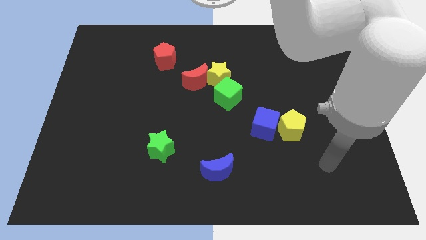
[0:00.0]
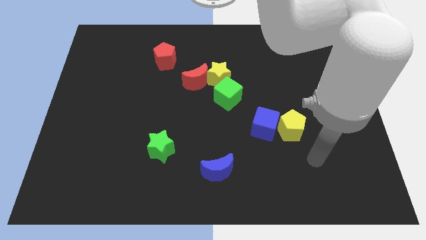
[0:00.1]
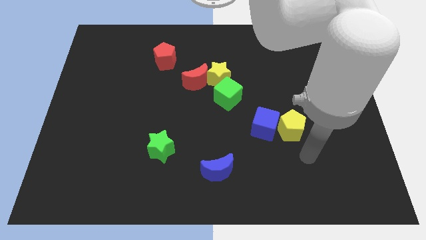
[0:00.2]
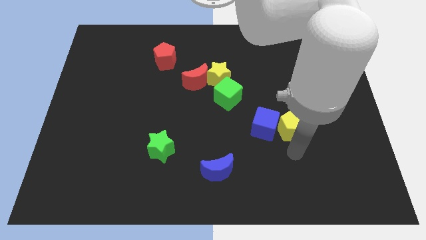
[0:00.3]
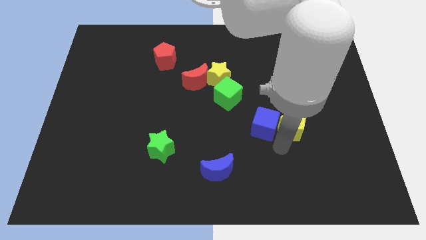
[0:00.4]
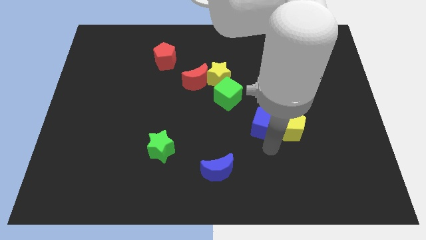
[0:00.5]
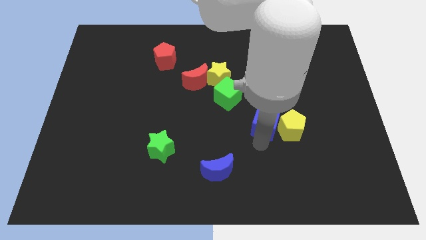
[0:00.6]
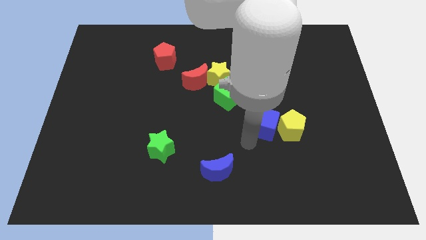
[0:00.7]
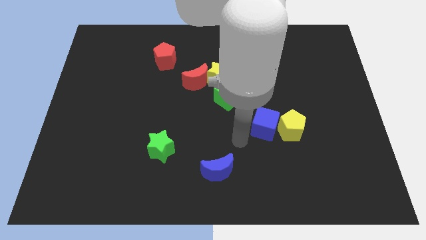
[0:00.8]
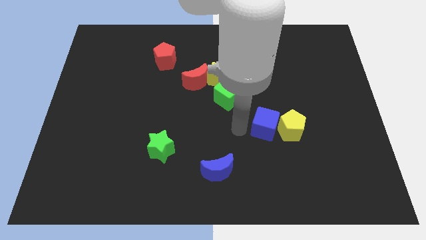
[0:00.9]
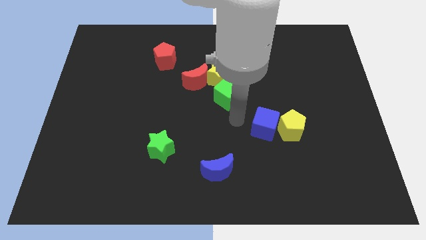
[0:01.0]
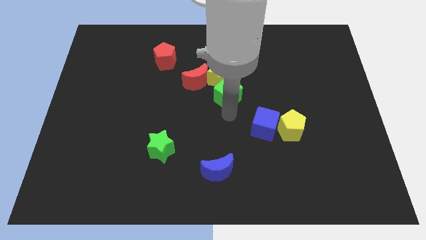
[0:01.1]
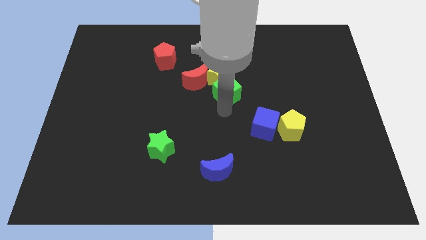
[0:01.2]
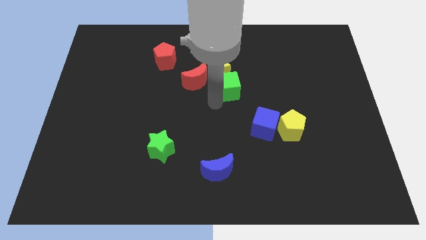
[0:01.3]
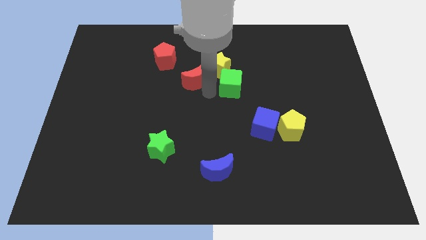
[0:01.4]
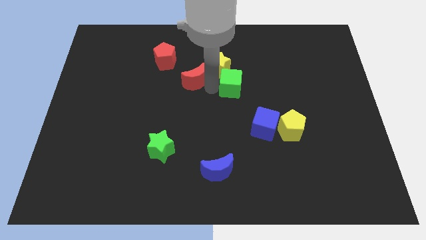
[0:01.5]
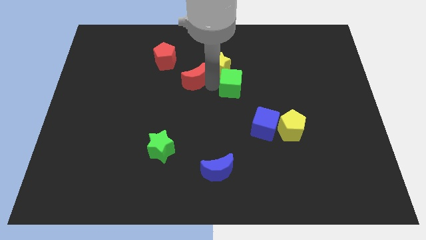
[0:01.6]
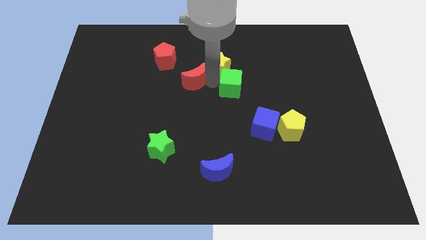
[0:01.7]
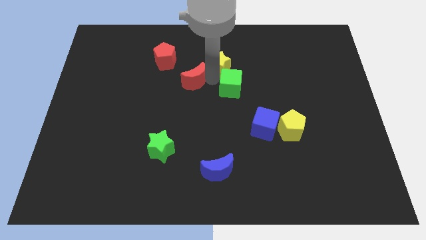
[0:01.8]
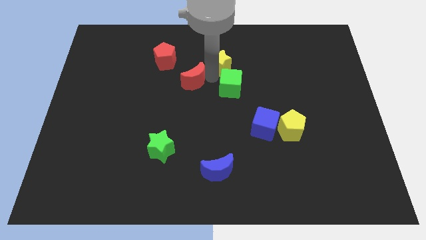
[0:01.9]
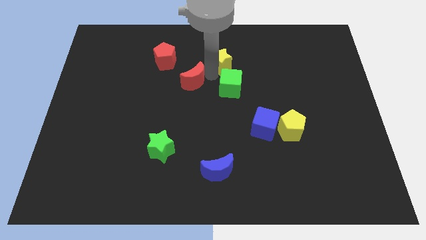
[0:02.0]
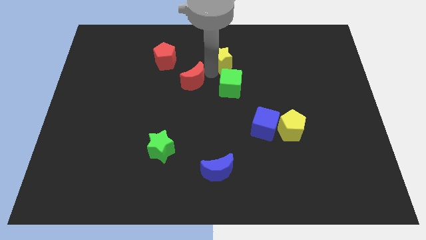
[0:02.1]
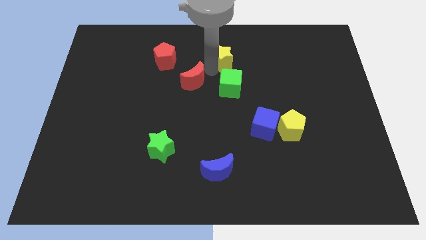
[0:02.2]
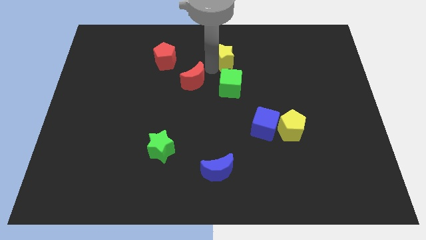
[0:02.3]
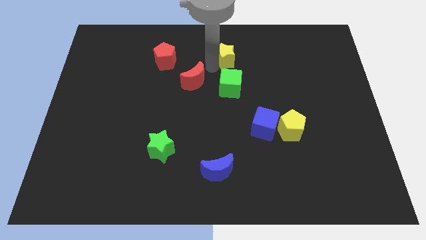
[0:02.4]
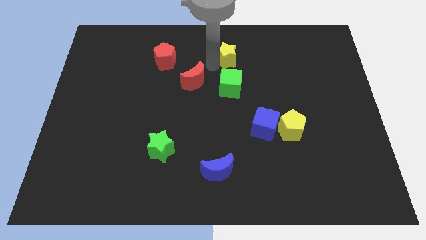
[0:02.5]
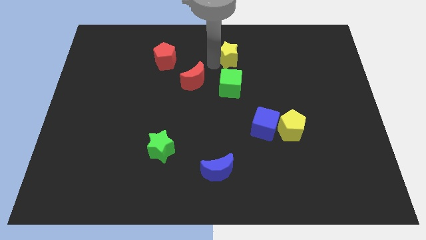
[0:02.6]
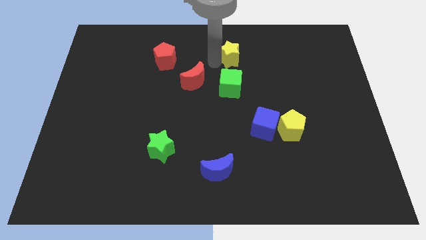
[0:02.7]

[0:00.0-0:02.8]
pull the yellow star apart from the red moon and green cube

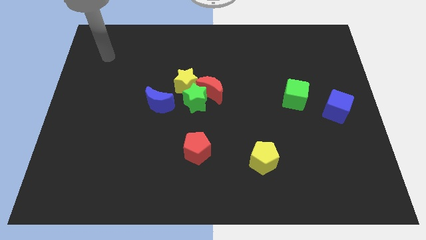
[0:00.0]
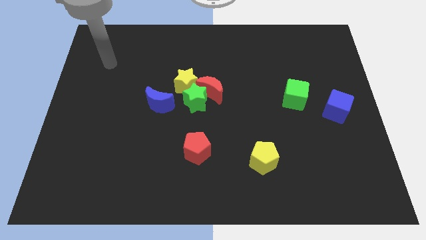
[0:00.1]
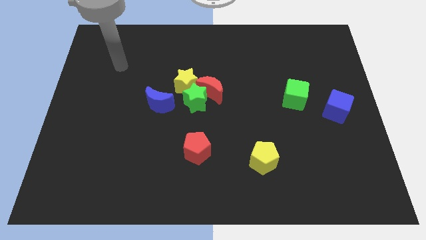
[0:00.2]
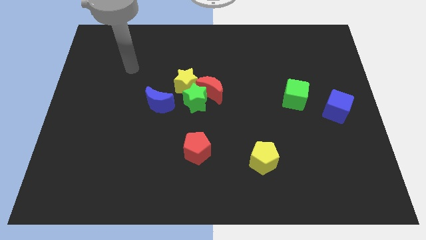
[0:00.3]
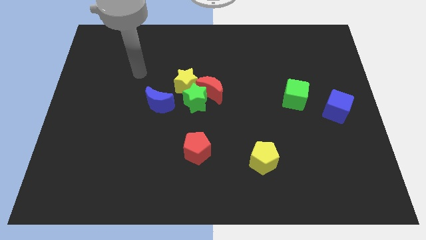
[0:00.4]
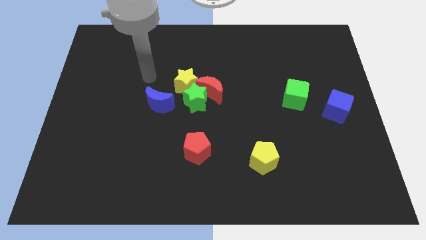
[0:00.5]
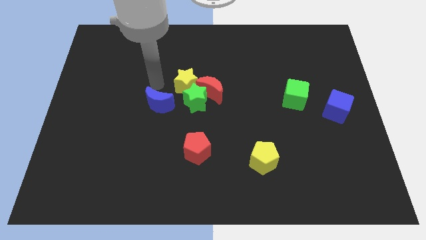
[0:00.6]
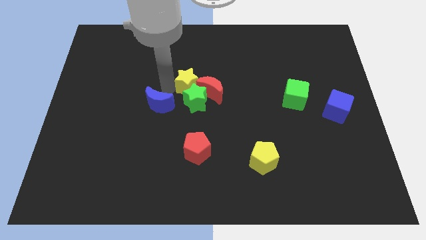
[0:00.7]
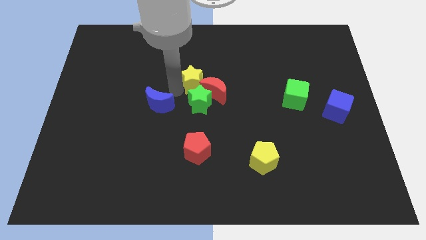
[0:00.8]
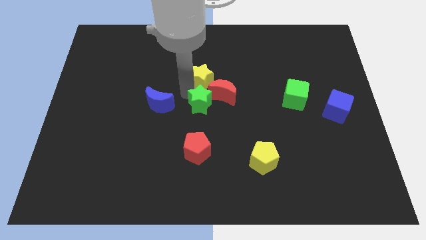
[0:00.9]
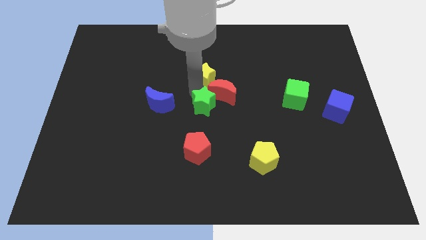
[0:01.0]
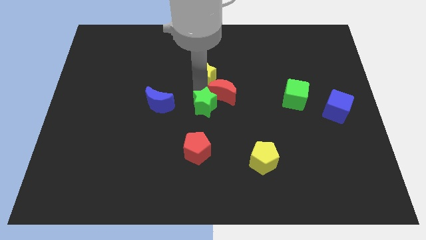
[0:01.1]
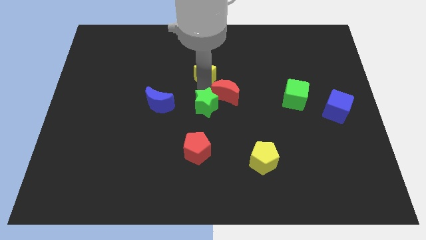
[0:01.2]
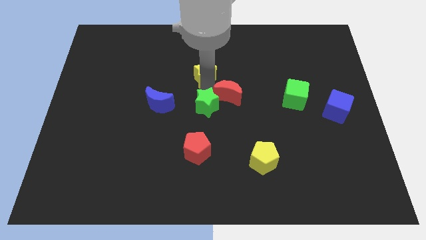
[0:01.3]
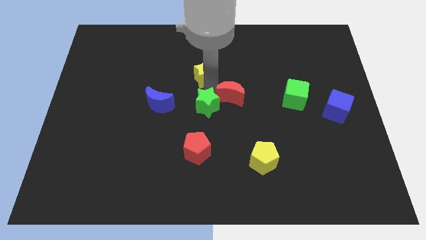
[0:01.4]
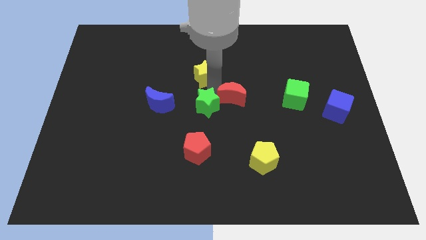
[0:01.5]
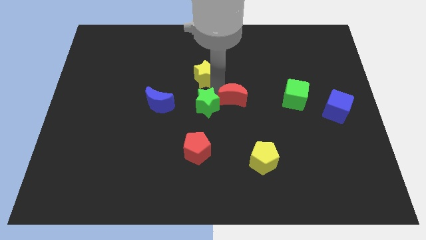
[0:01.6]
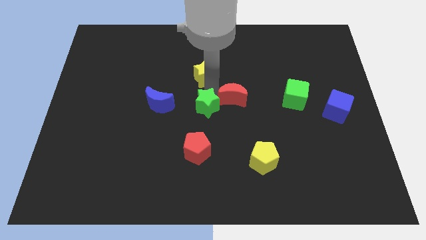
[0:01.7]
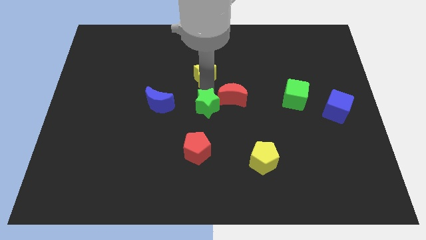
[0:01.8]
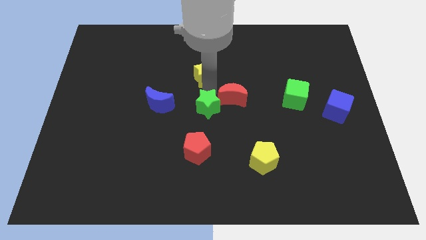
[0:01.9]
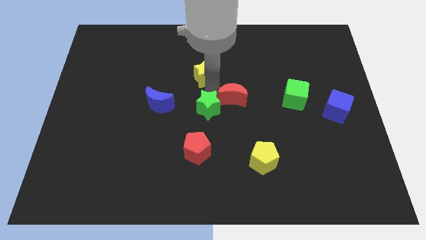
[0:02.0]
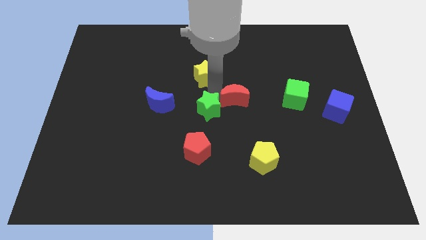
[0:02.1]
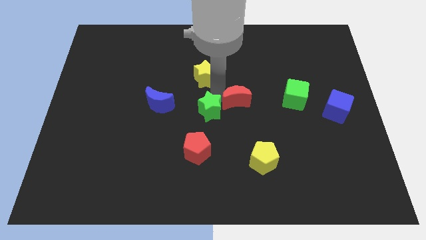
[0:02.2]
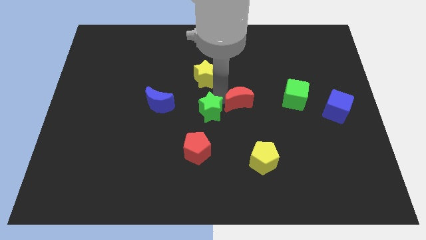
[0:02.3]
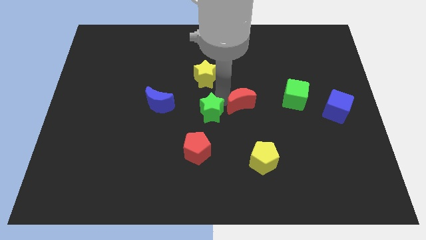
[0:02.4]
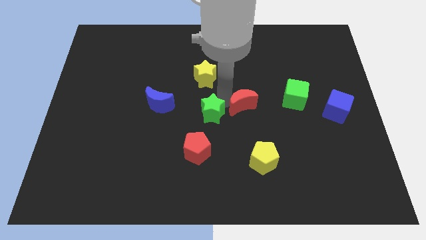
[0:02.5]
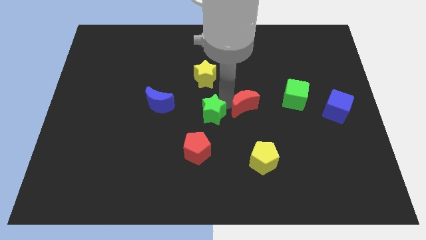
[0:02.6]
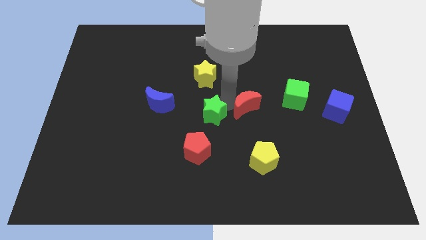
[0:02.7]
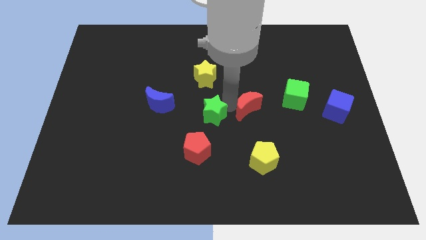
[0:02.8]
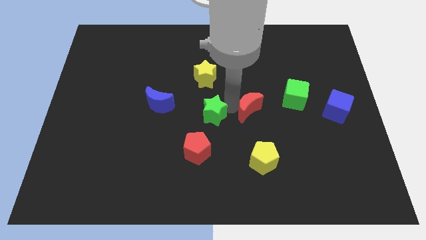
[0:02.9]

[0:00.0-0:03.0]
pull the red moon apart from the green star and yellow star

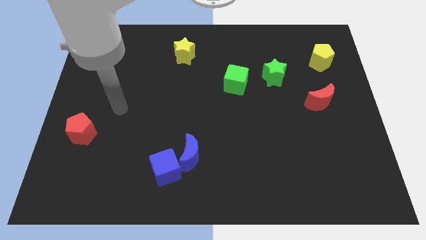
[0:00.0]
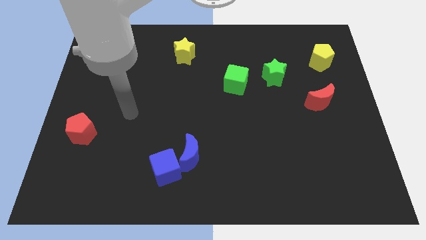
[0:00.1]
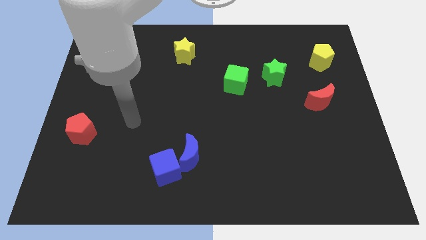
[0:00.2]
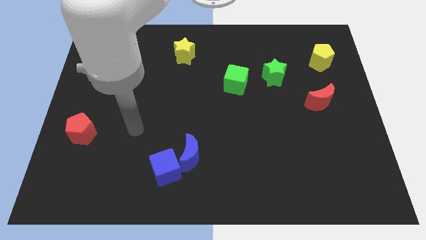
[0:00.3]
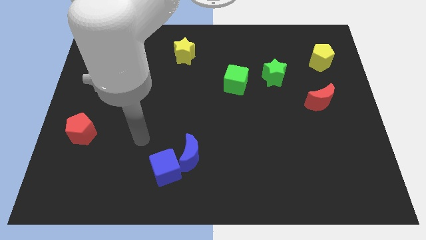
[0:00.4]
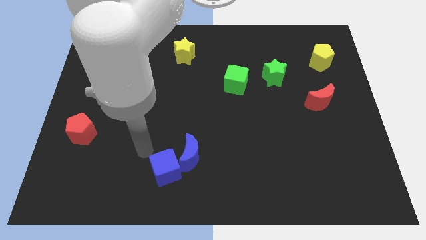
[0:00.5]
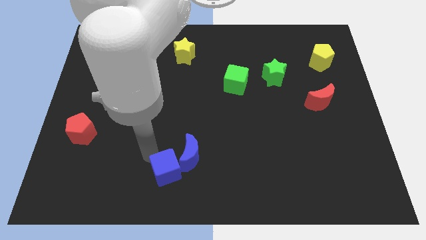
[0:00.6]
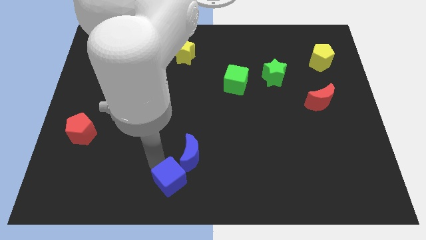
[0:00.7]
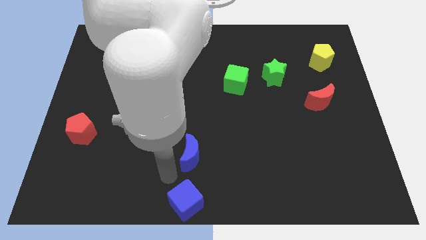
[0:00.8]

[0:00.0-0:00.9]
move the blue moon away from the blue cube

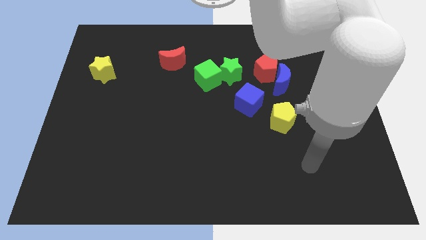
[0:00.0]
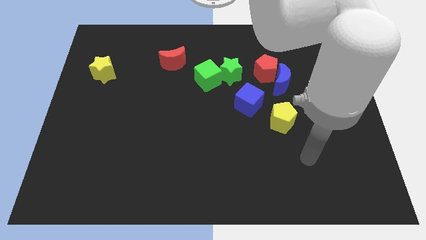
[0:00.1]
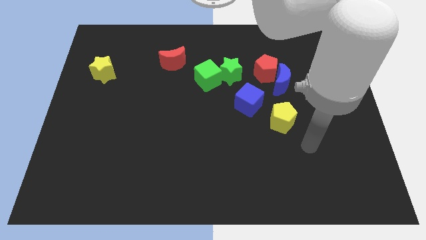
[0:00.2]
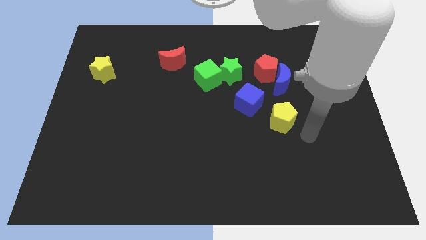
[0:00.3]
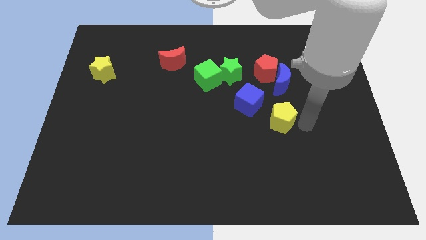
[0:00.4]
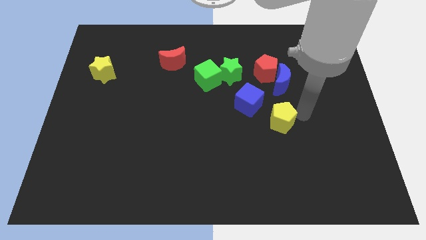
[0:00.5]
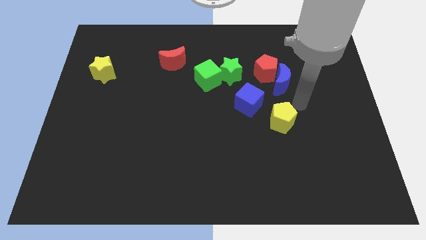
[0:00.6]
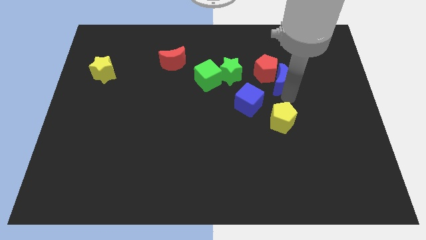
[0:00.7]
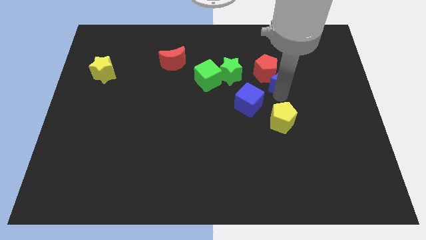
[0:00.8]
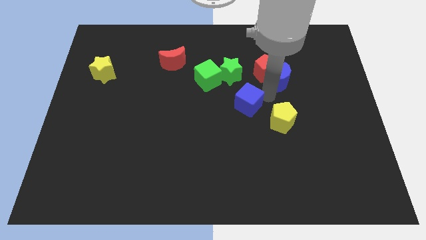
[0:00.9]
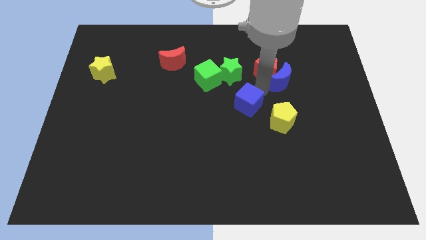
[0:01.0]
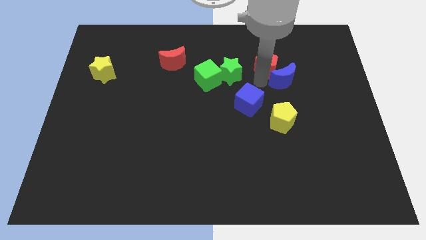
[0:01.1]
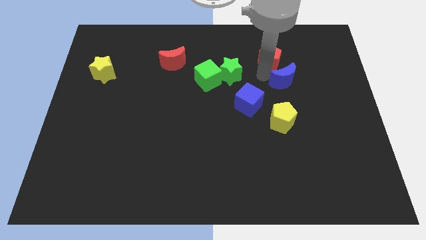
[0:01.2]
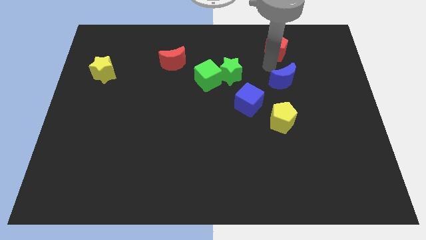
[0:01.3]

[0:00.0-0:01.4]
pull the blue moon apart from the red pentagon

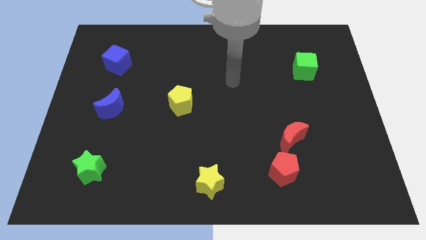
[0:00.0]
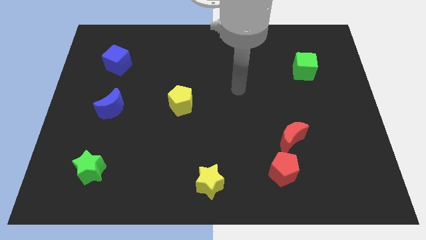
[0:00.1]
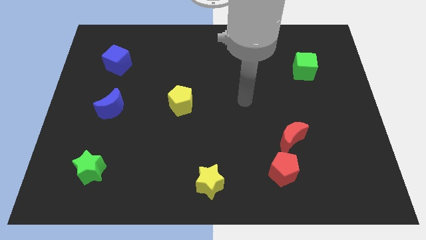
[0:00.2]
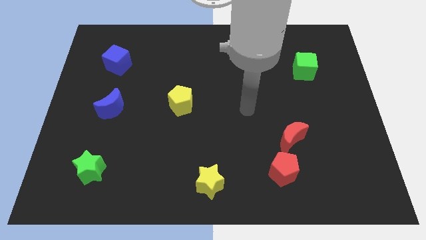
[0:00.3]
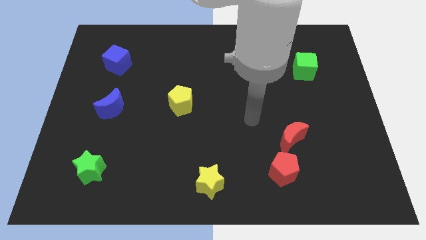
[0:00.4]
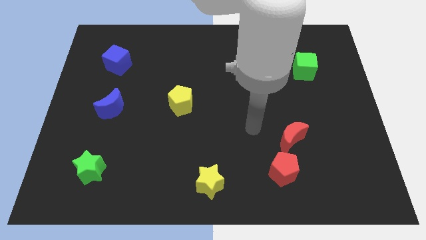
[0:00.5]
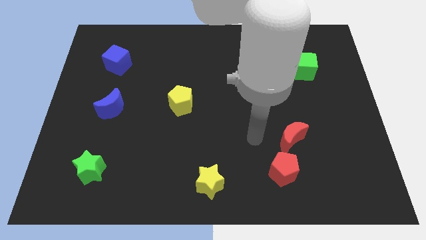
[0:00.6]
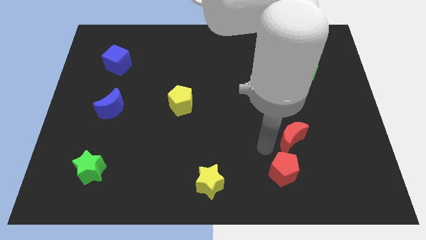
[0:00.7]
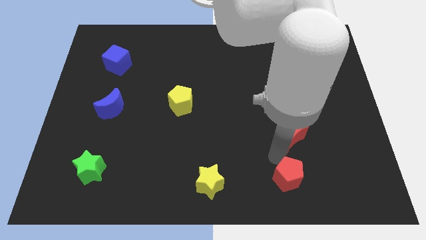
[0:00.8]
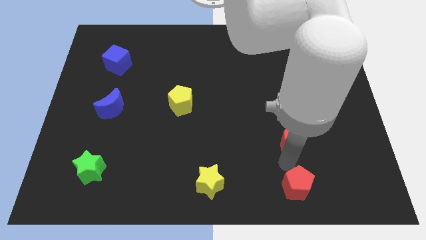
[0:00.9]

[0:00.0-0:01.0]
separate the red moon from the red pentagon

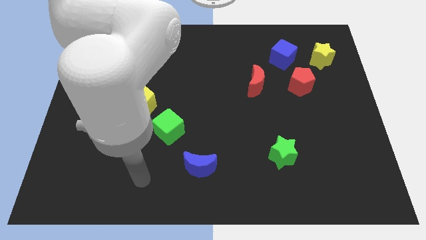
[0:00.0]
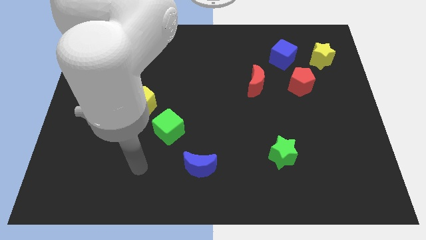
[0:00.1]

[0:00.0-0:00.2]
pull the green cube apart from the yellow pentagon
